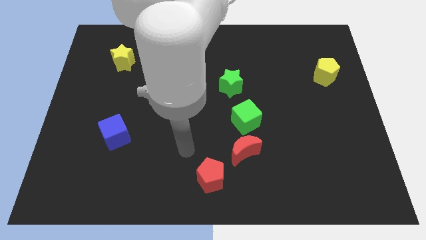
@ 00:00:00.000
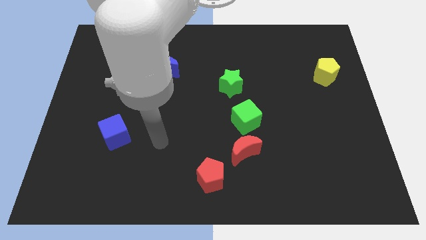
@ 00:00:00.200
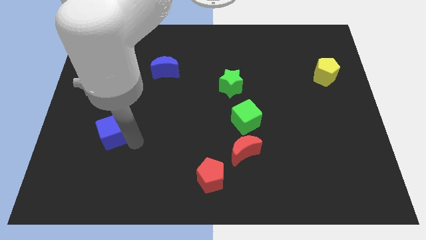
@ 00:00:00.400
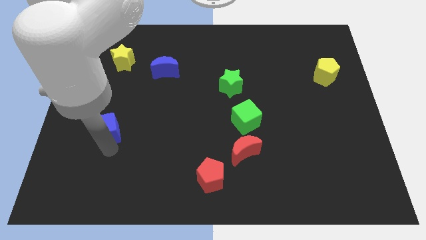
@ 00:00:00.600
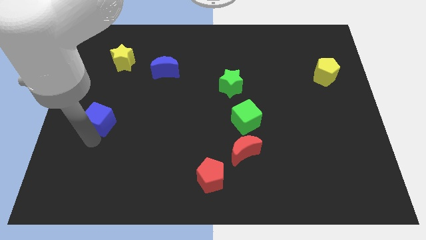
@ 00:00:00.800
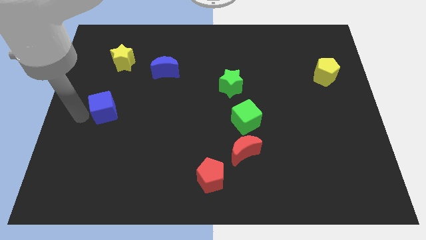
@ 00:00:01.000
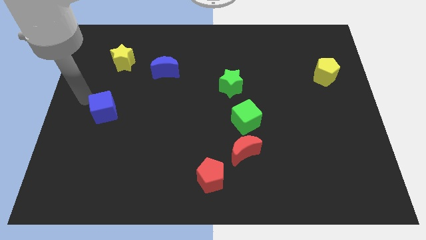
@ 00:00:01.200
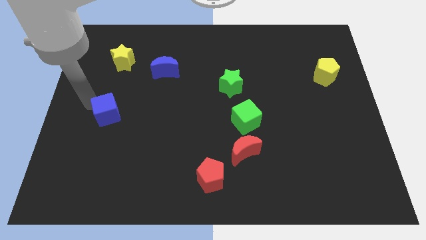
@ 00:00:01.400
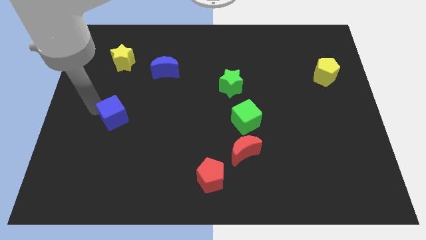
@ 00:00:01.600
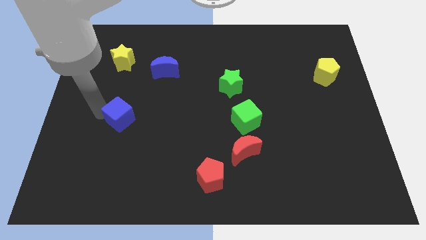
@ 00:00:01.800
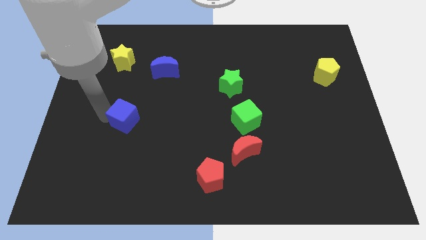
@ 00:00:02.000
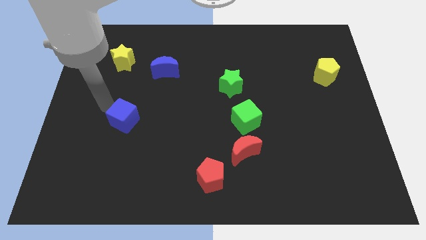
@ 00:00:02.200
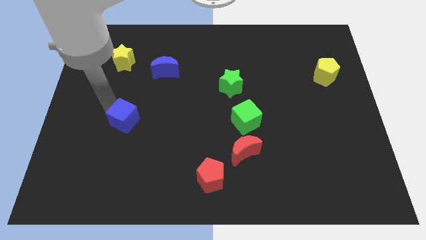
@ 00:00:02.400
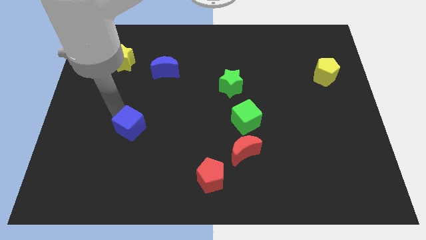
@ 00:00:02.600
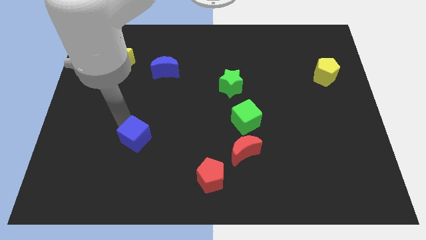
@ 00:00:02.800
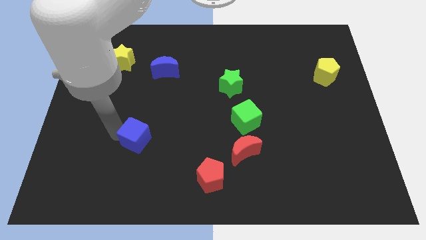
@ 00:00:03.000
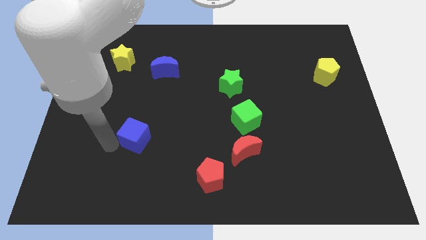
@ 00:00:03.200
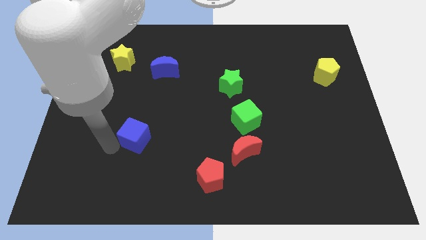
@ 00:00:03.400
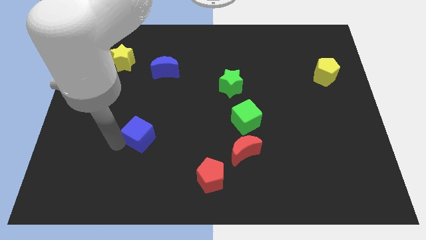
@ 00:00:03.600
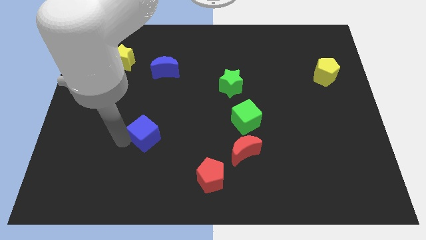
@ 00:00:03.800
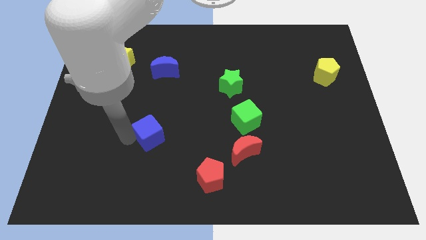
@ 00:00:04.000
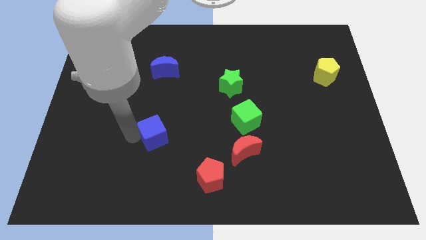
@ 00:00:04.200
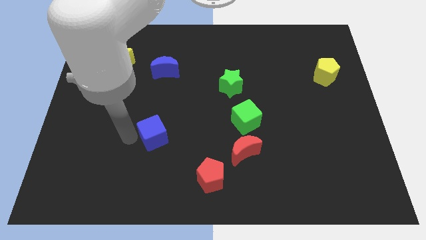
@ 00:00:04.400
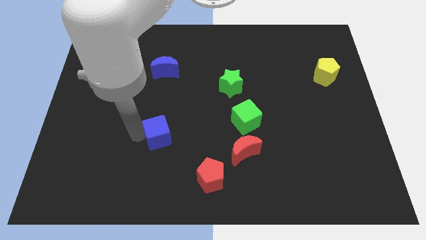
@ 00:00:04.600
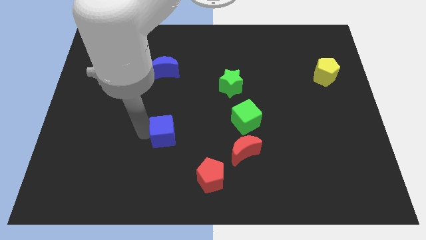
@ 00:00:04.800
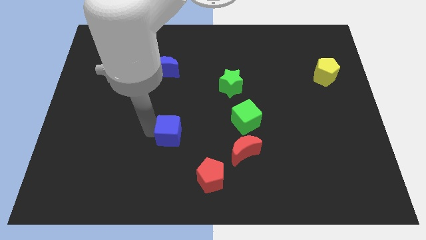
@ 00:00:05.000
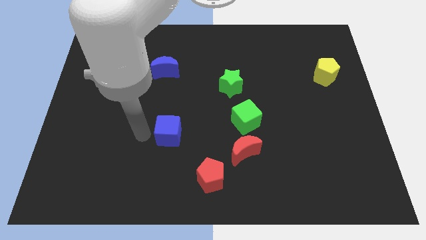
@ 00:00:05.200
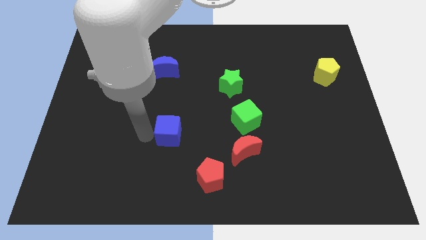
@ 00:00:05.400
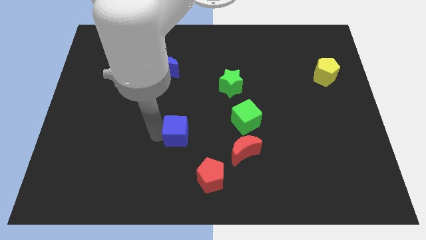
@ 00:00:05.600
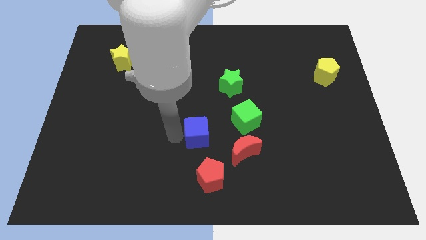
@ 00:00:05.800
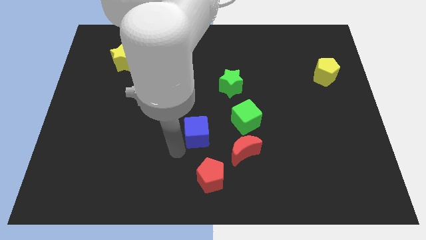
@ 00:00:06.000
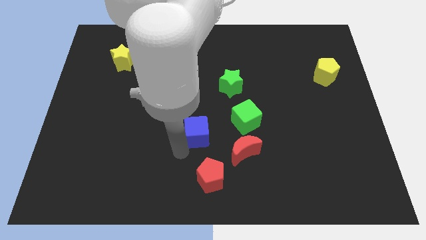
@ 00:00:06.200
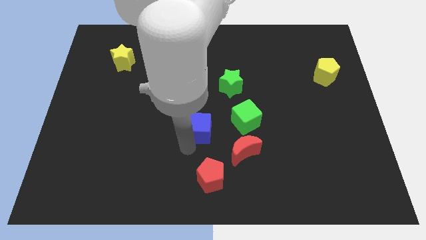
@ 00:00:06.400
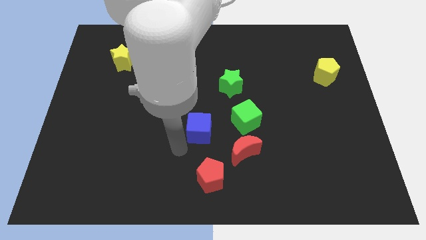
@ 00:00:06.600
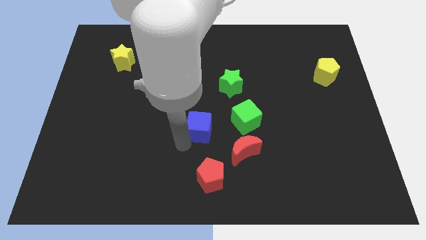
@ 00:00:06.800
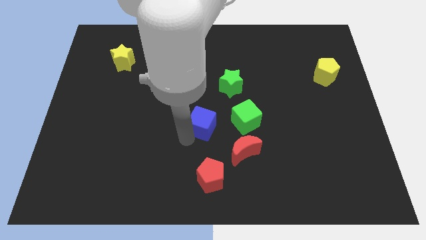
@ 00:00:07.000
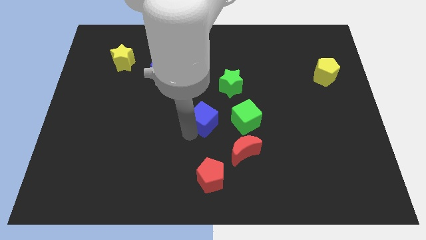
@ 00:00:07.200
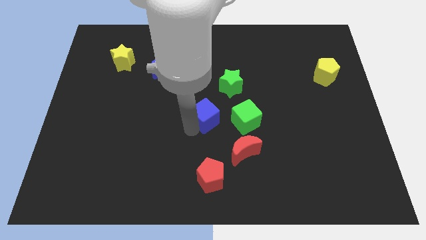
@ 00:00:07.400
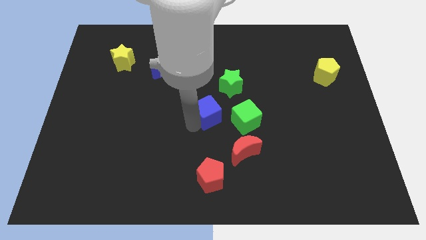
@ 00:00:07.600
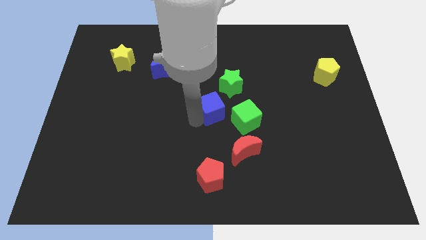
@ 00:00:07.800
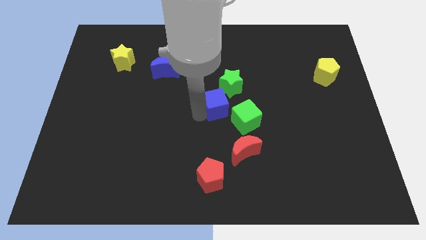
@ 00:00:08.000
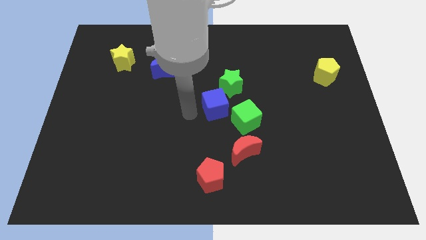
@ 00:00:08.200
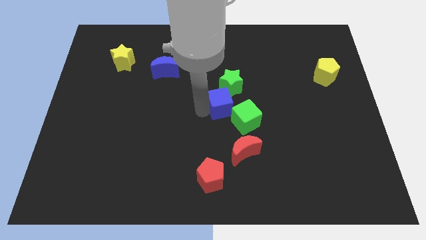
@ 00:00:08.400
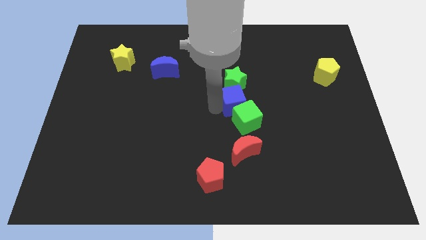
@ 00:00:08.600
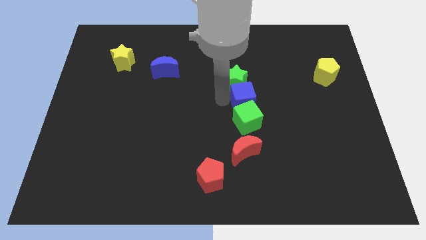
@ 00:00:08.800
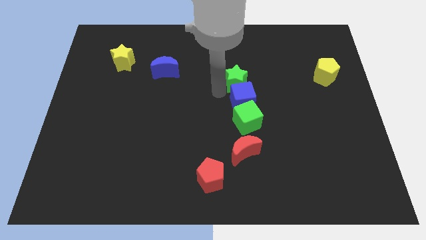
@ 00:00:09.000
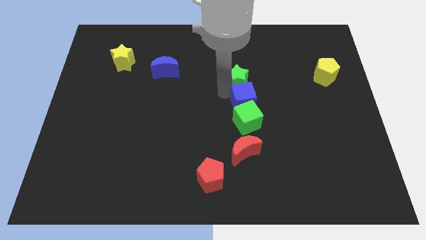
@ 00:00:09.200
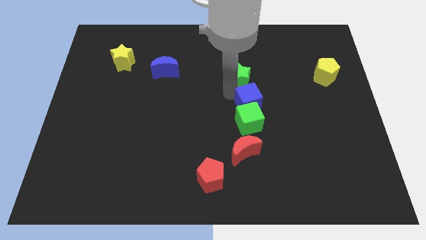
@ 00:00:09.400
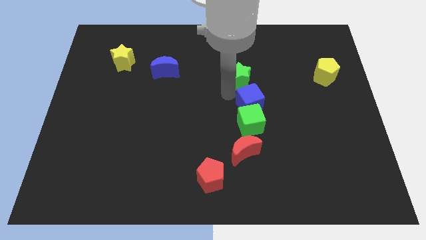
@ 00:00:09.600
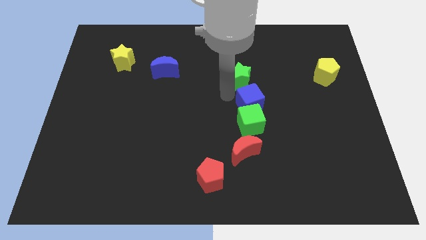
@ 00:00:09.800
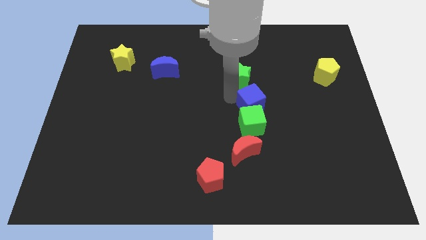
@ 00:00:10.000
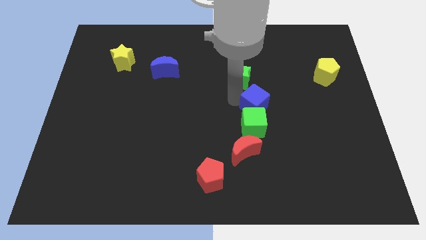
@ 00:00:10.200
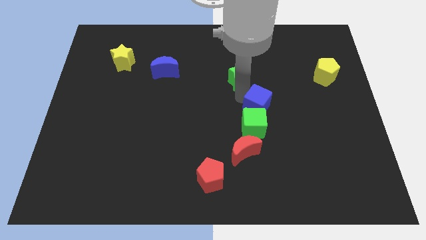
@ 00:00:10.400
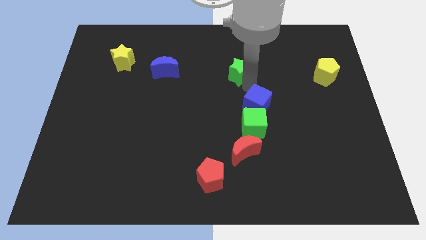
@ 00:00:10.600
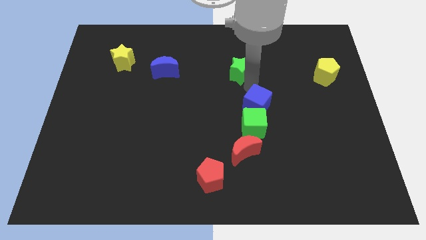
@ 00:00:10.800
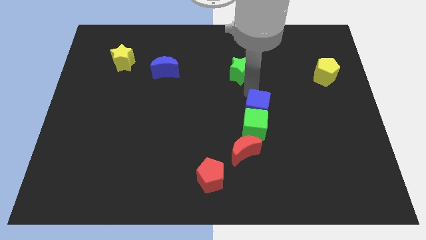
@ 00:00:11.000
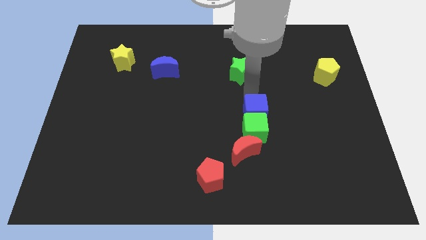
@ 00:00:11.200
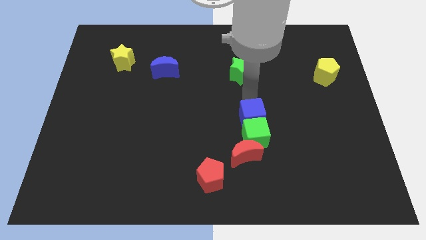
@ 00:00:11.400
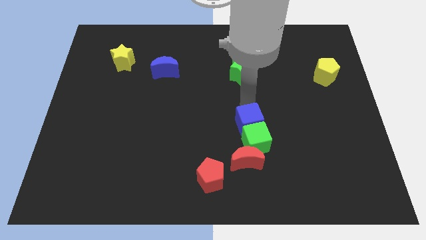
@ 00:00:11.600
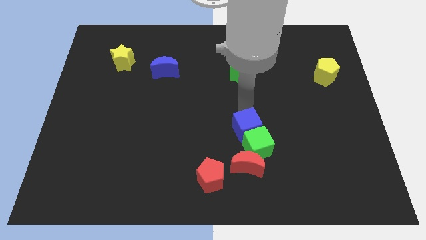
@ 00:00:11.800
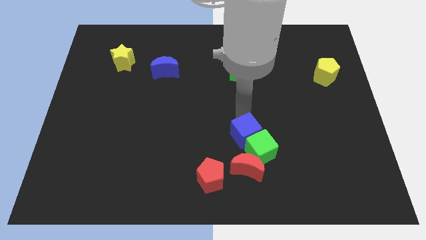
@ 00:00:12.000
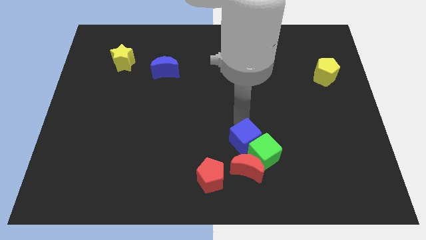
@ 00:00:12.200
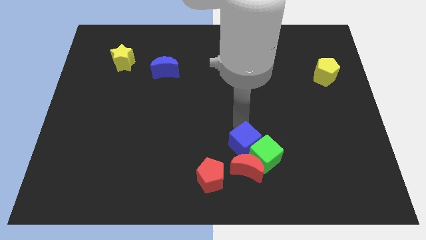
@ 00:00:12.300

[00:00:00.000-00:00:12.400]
move the blue cube to the top right of the red moon

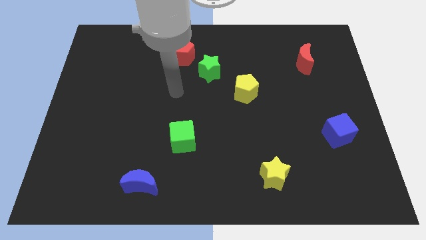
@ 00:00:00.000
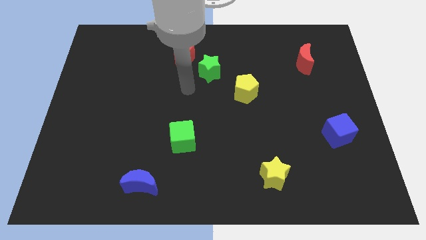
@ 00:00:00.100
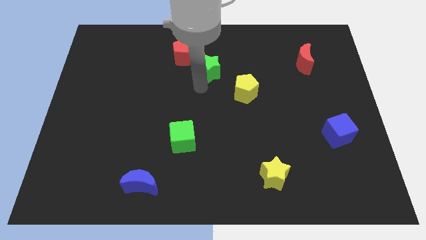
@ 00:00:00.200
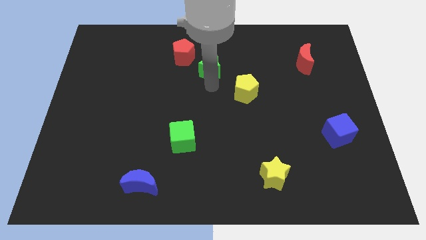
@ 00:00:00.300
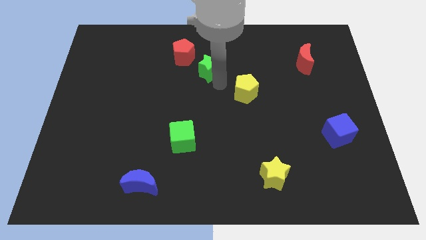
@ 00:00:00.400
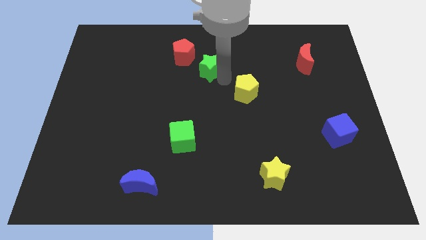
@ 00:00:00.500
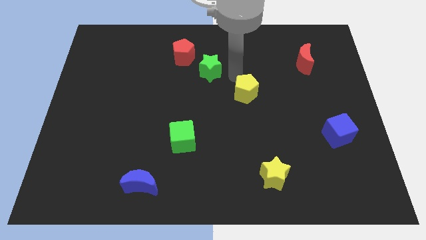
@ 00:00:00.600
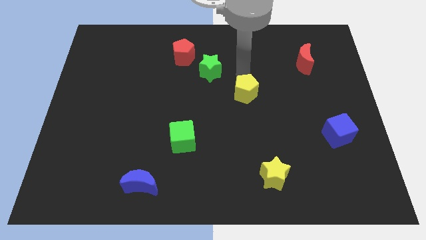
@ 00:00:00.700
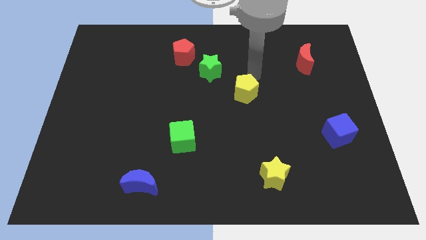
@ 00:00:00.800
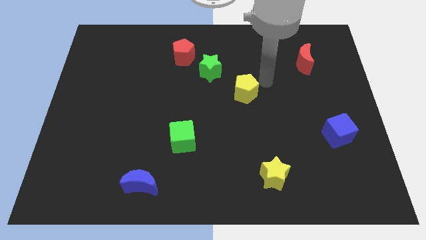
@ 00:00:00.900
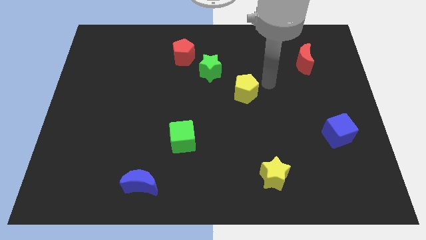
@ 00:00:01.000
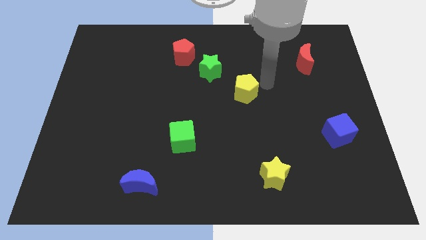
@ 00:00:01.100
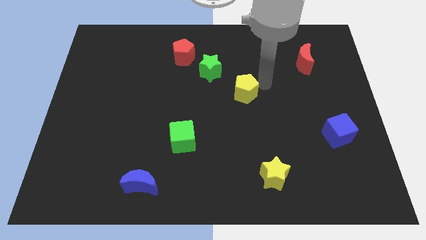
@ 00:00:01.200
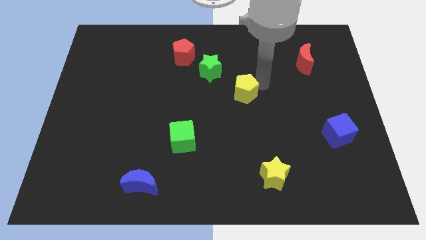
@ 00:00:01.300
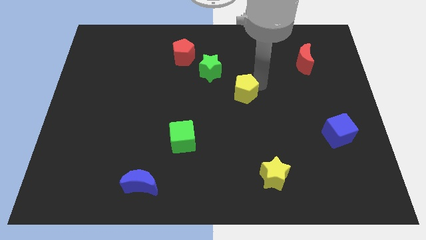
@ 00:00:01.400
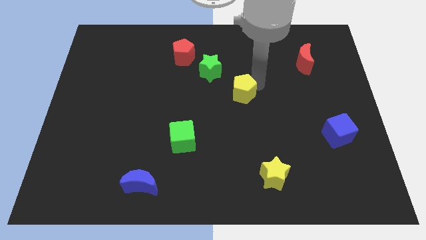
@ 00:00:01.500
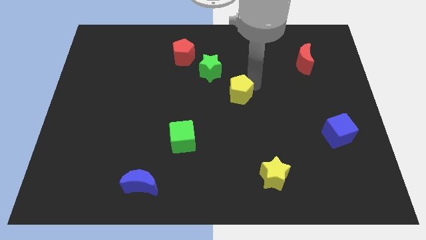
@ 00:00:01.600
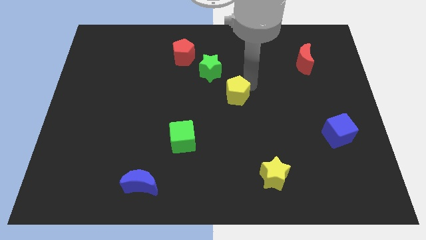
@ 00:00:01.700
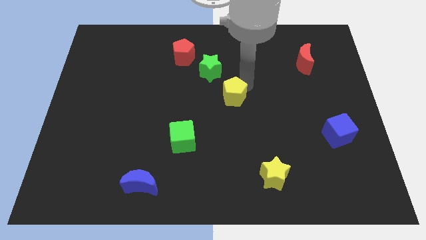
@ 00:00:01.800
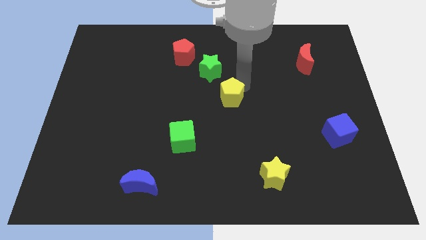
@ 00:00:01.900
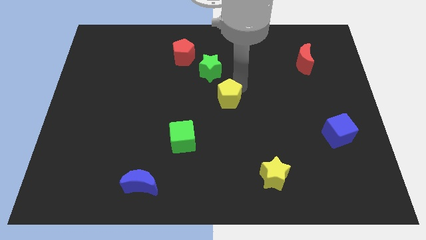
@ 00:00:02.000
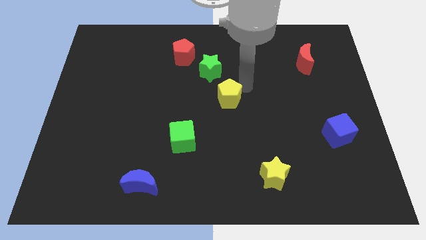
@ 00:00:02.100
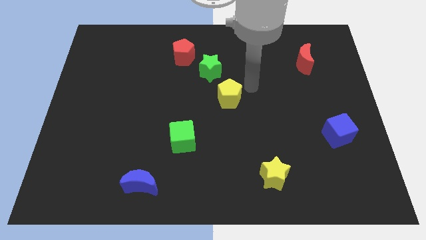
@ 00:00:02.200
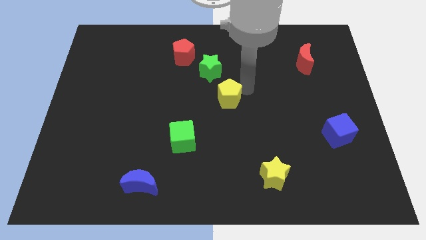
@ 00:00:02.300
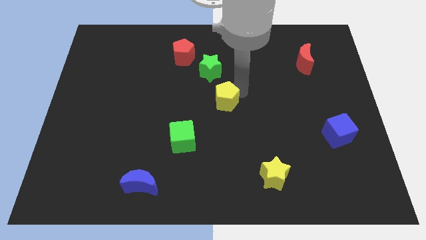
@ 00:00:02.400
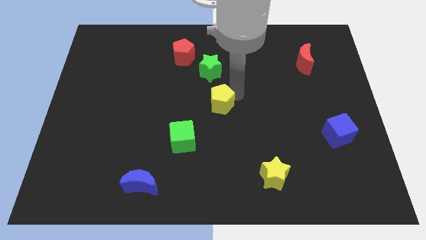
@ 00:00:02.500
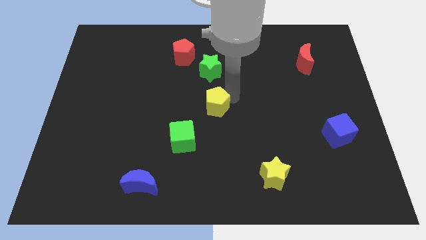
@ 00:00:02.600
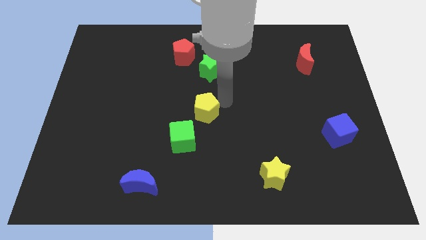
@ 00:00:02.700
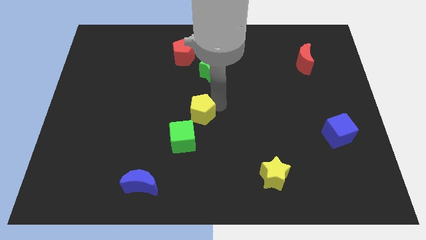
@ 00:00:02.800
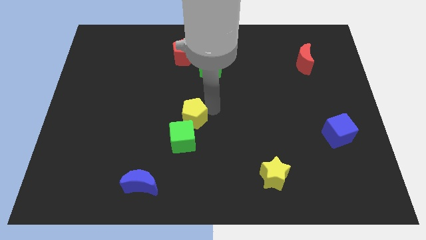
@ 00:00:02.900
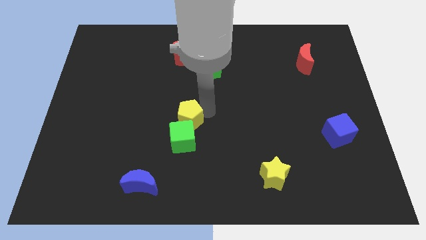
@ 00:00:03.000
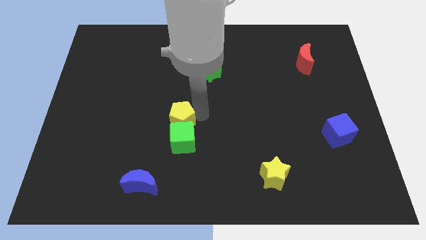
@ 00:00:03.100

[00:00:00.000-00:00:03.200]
move the yellow pentagon to the top left side of the green cube
